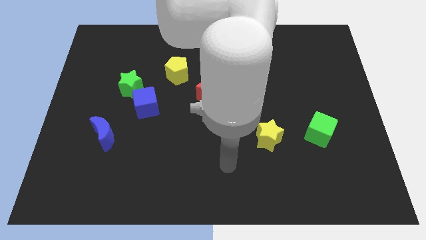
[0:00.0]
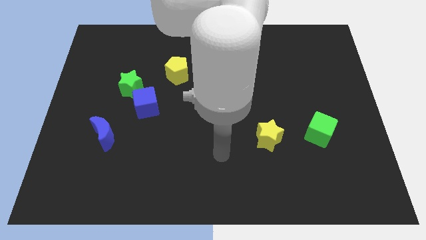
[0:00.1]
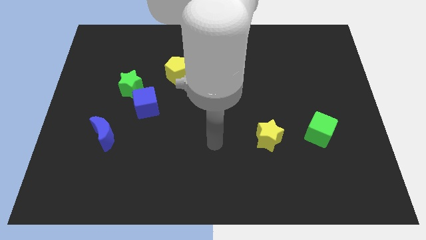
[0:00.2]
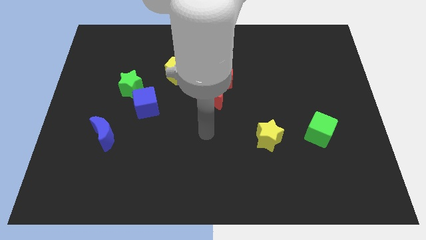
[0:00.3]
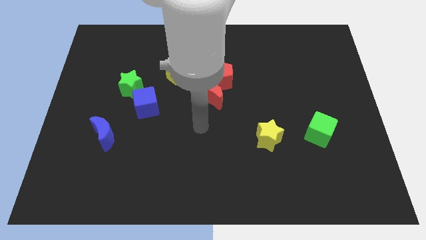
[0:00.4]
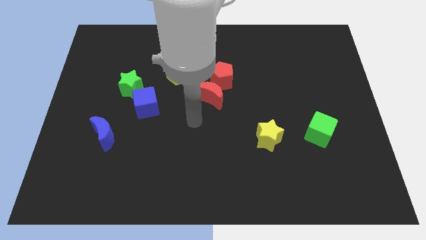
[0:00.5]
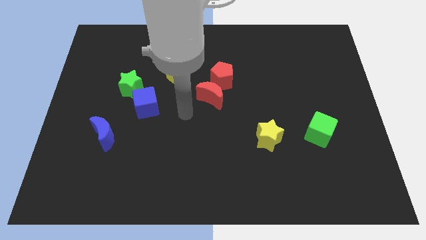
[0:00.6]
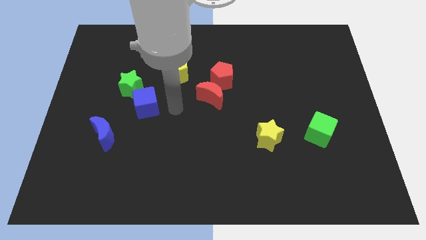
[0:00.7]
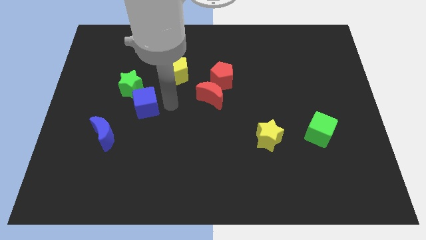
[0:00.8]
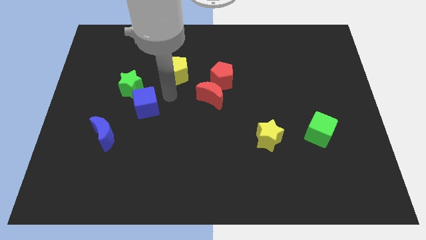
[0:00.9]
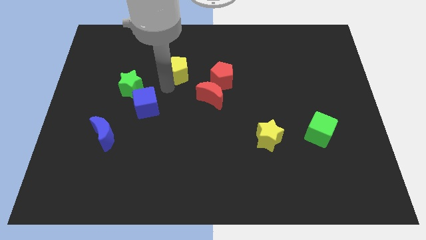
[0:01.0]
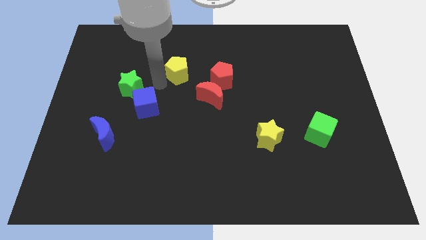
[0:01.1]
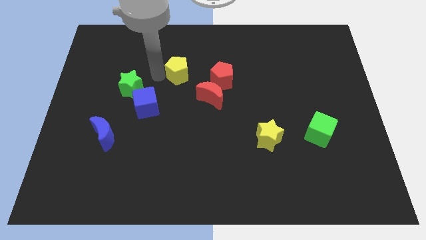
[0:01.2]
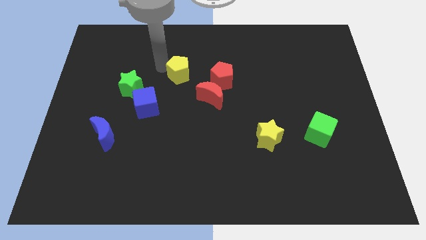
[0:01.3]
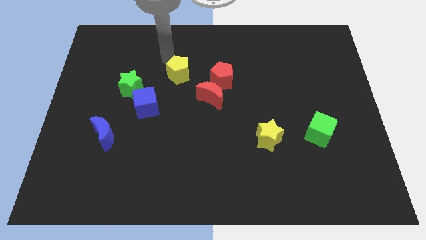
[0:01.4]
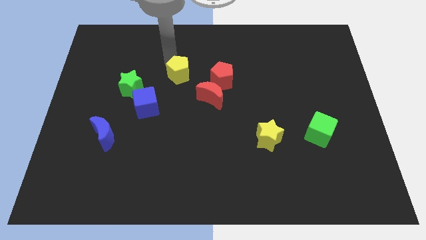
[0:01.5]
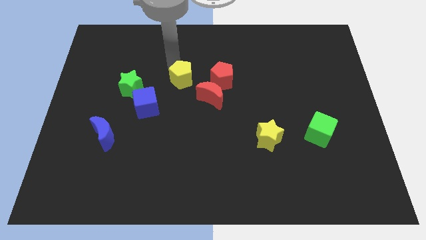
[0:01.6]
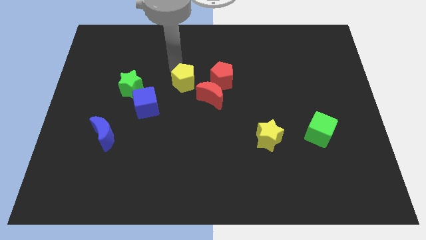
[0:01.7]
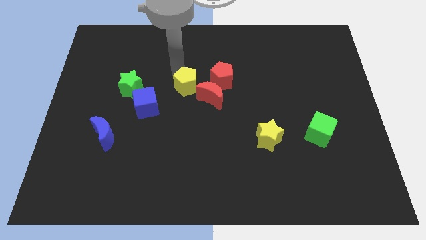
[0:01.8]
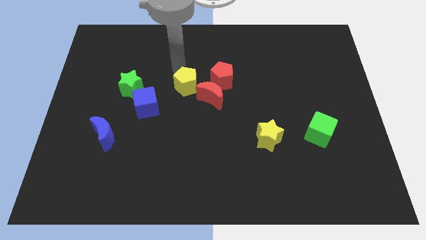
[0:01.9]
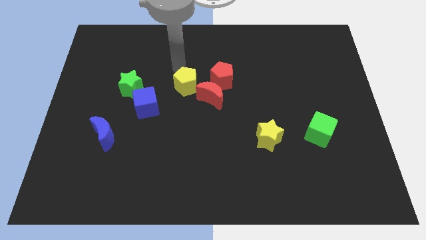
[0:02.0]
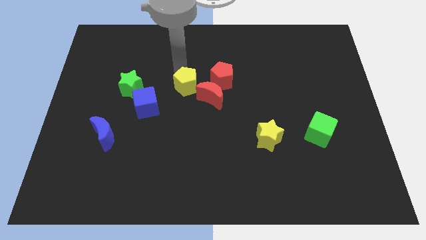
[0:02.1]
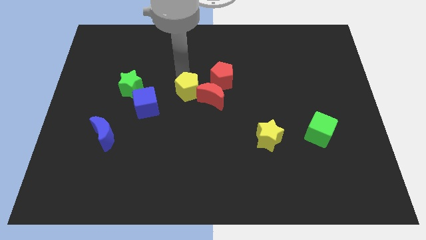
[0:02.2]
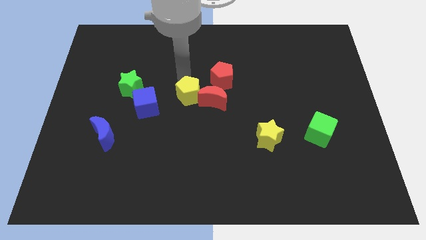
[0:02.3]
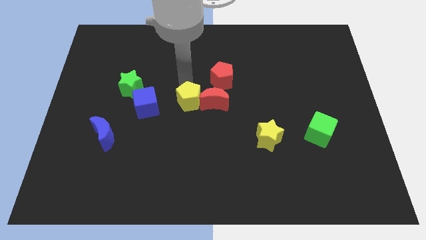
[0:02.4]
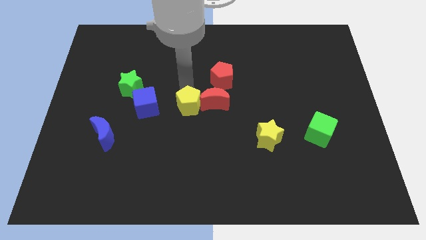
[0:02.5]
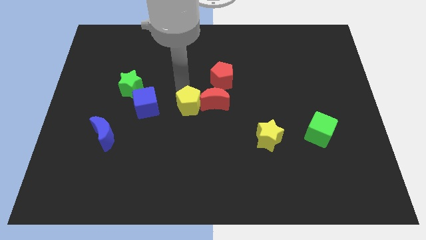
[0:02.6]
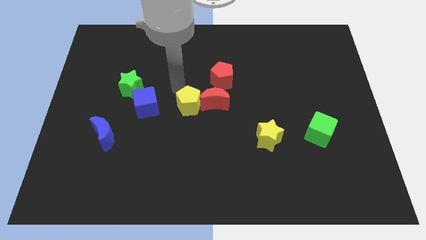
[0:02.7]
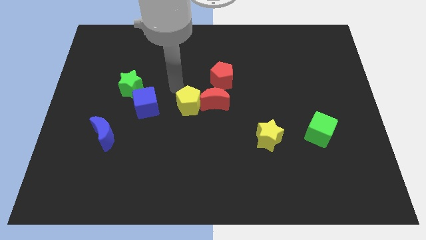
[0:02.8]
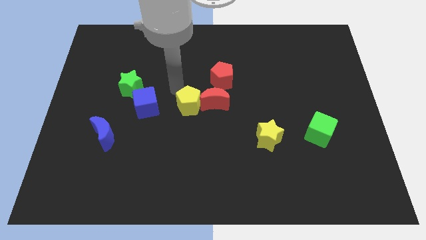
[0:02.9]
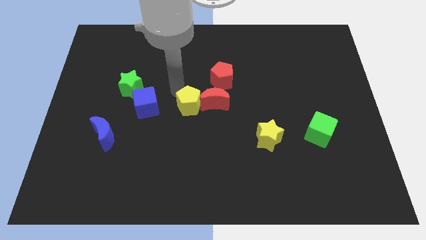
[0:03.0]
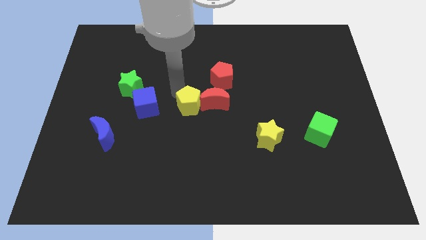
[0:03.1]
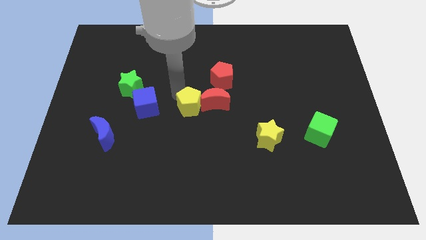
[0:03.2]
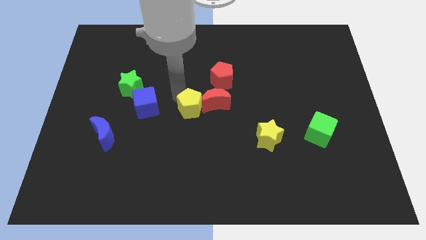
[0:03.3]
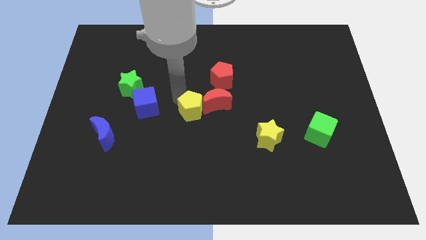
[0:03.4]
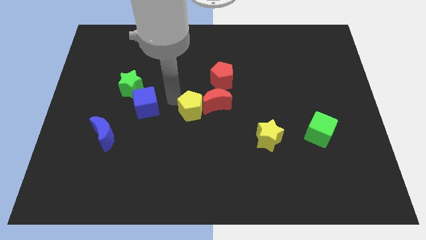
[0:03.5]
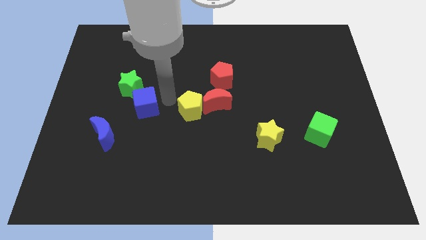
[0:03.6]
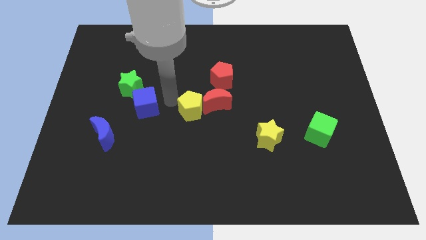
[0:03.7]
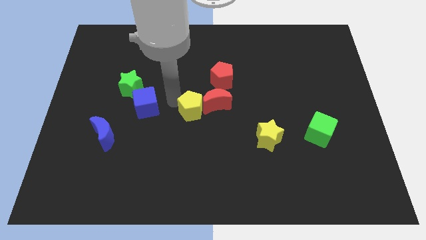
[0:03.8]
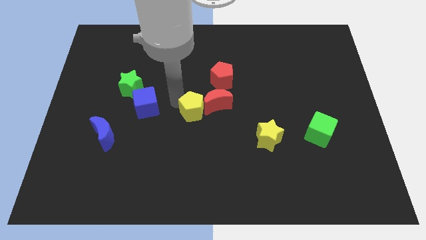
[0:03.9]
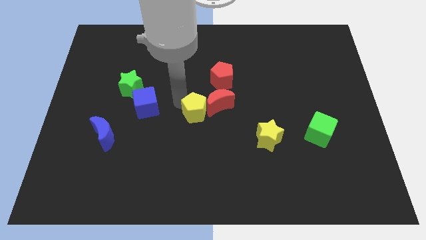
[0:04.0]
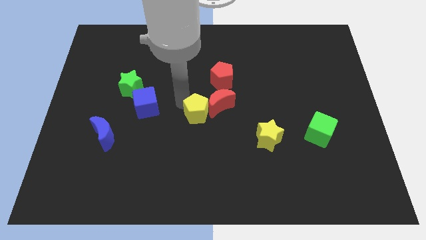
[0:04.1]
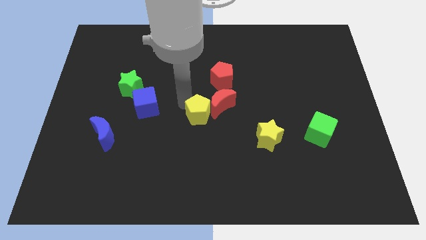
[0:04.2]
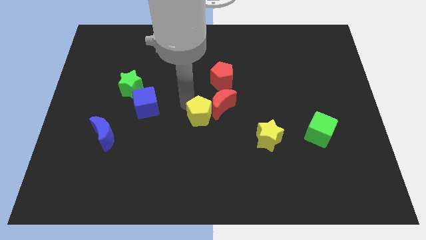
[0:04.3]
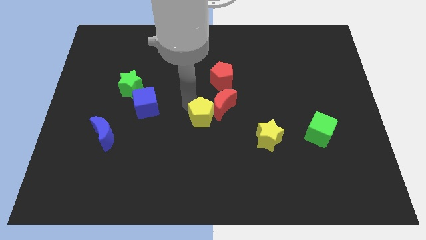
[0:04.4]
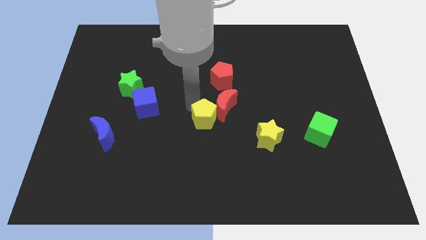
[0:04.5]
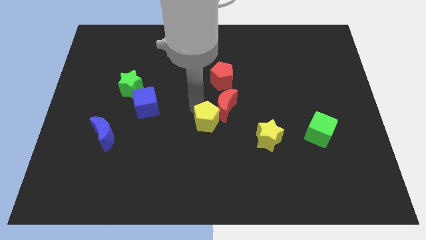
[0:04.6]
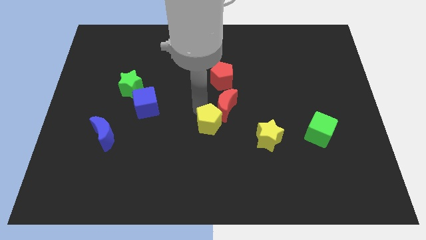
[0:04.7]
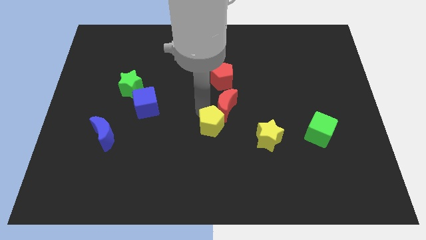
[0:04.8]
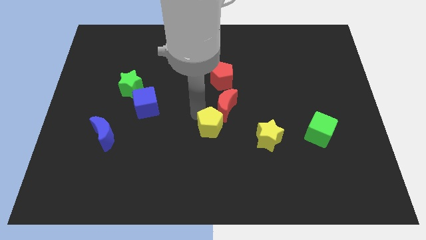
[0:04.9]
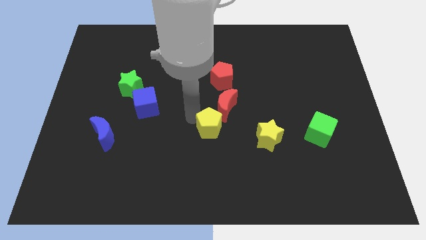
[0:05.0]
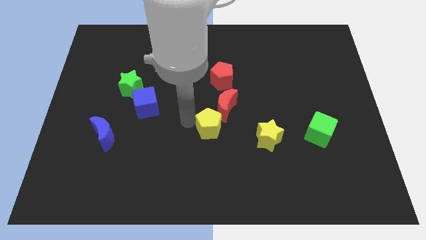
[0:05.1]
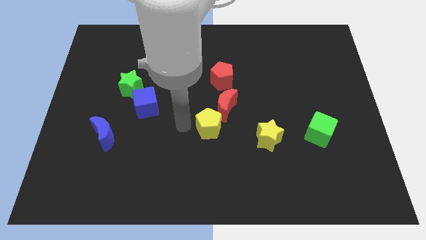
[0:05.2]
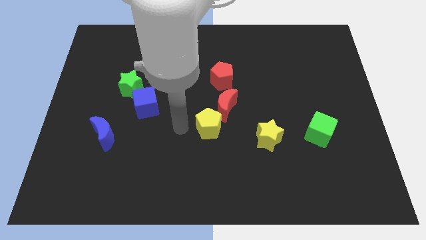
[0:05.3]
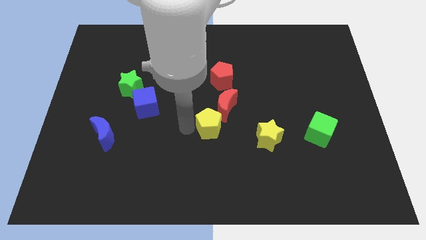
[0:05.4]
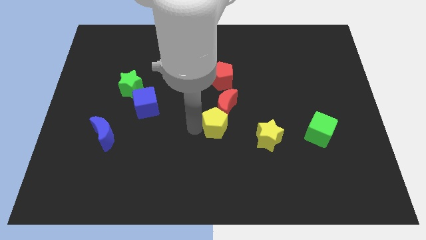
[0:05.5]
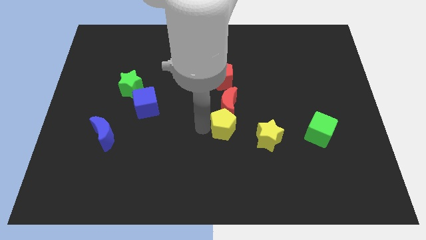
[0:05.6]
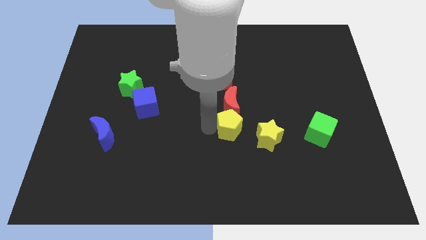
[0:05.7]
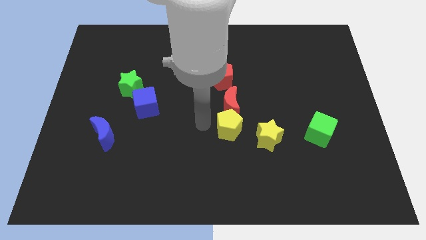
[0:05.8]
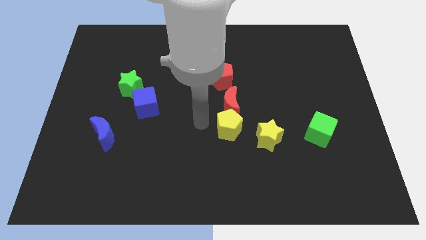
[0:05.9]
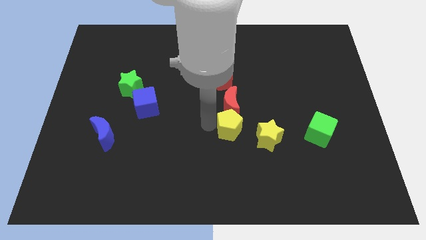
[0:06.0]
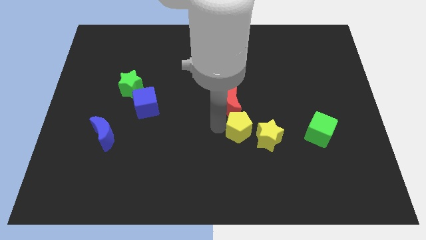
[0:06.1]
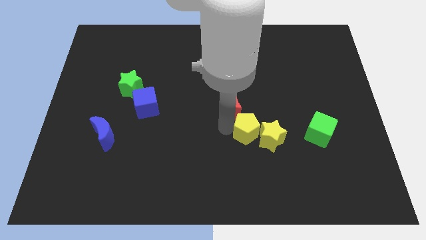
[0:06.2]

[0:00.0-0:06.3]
slide the yellow pentagon close to the yellow star

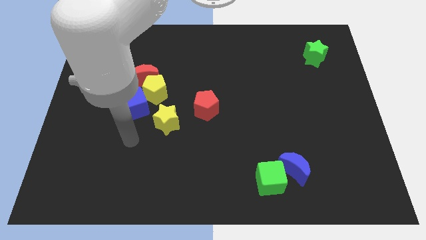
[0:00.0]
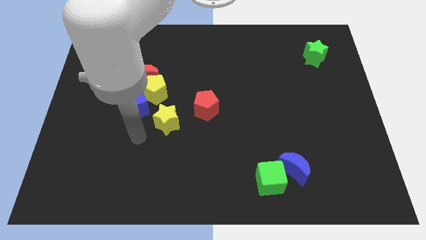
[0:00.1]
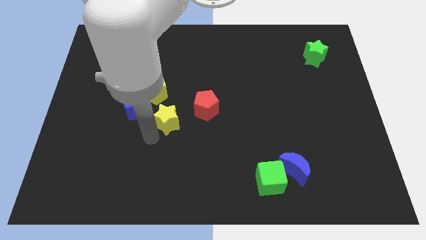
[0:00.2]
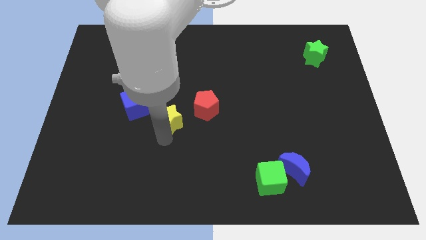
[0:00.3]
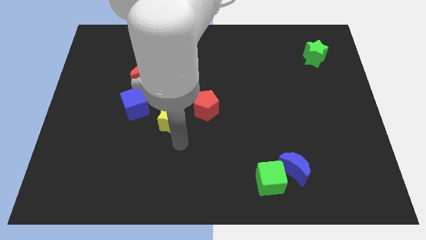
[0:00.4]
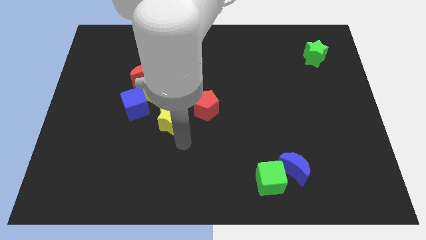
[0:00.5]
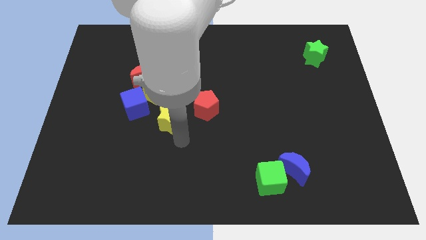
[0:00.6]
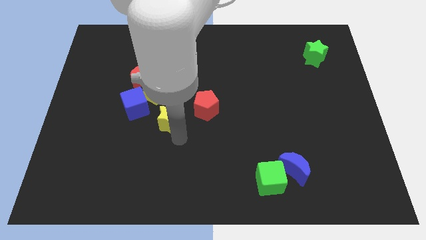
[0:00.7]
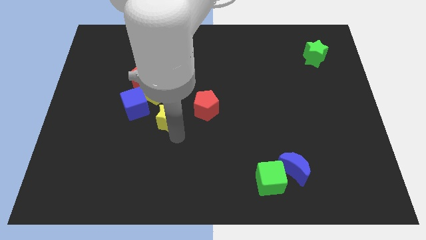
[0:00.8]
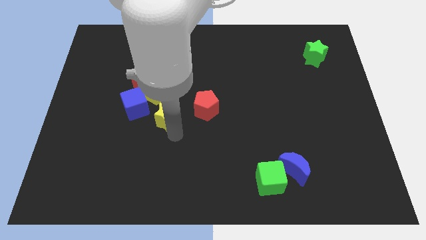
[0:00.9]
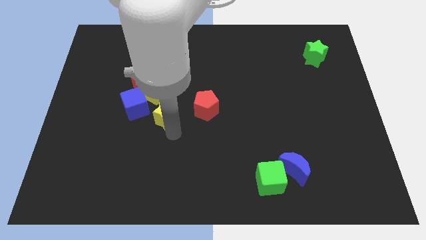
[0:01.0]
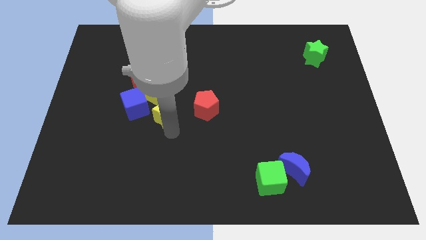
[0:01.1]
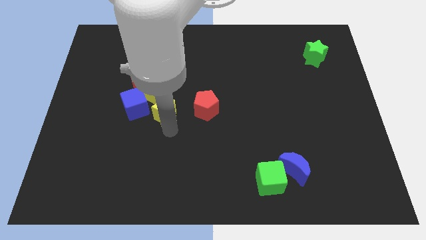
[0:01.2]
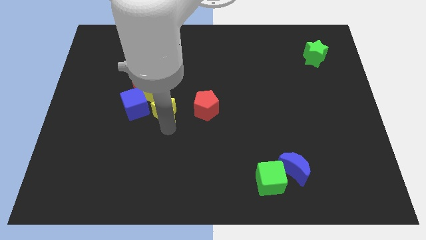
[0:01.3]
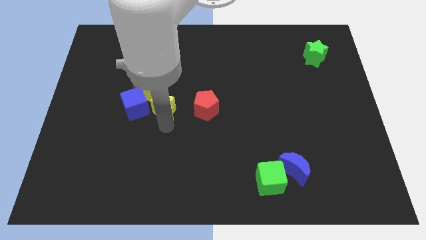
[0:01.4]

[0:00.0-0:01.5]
push the yellow star close to the yellow pentagon
